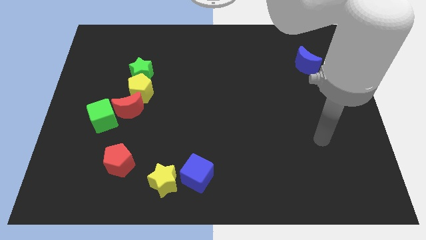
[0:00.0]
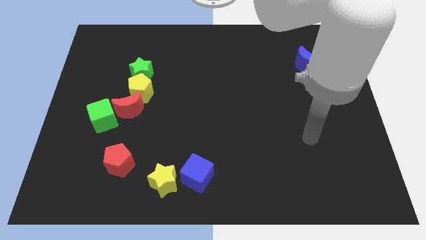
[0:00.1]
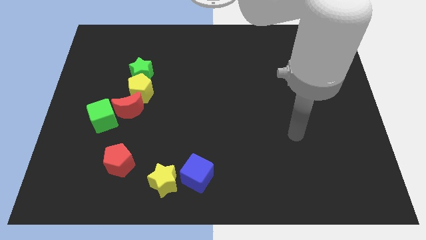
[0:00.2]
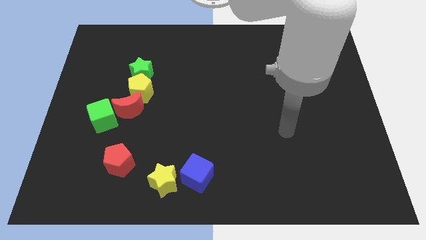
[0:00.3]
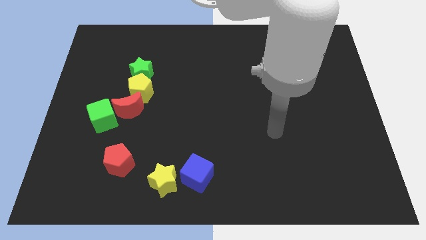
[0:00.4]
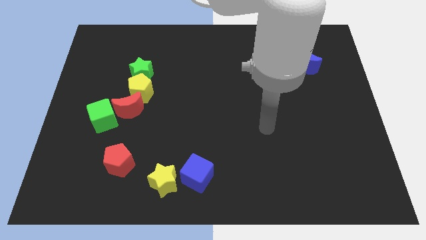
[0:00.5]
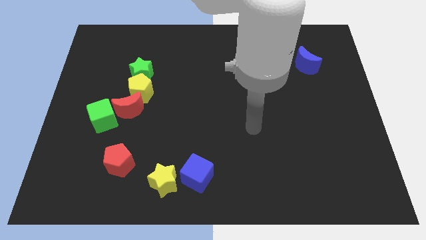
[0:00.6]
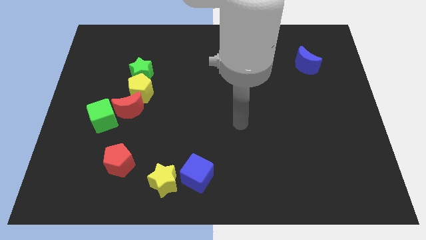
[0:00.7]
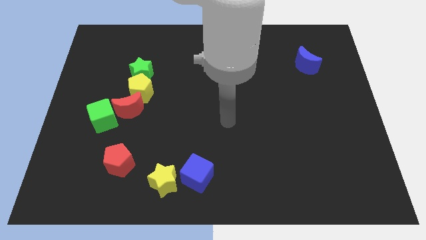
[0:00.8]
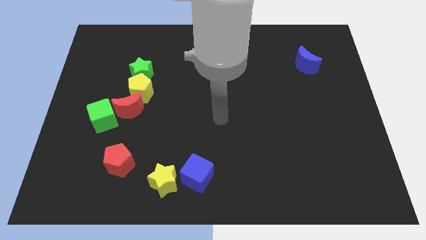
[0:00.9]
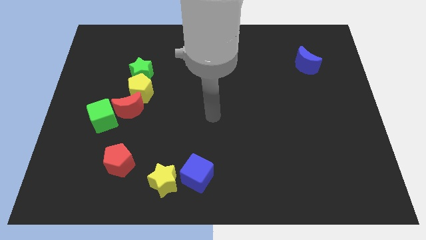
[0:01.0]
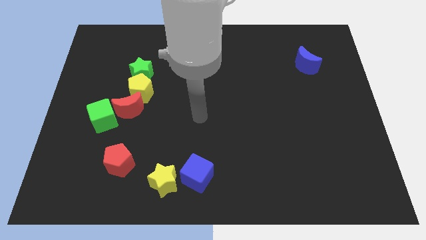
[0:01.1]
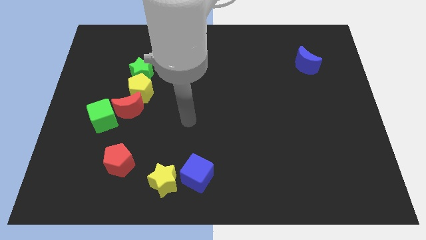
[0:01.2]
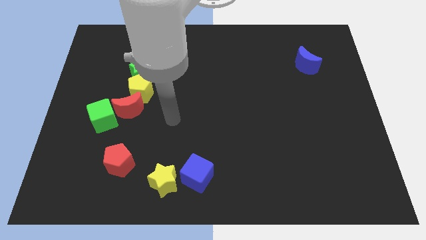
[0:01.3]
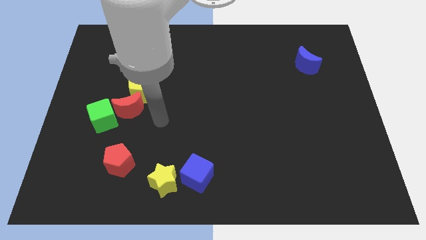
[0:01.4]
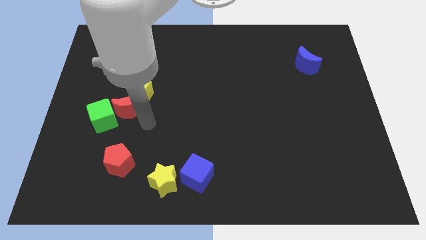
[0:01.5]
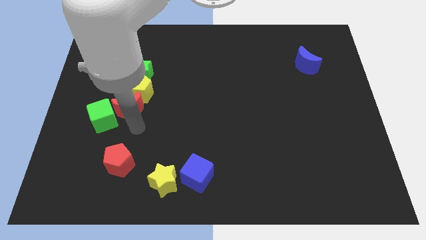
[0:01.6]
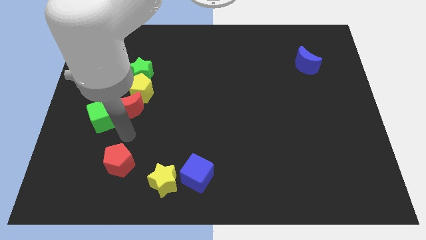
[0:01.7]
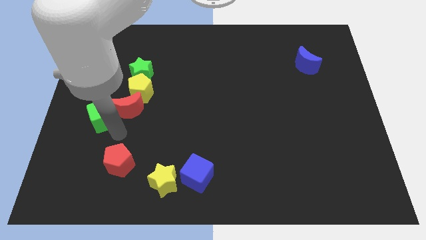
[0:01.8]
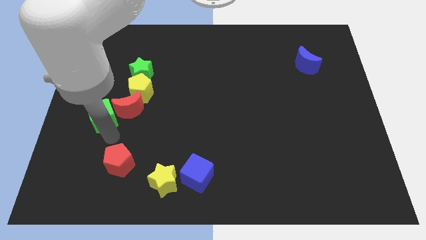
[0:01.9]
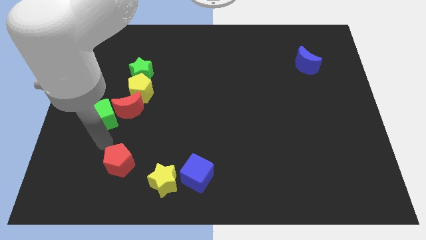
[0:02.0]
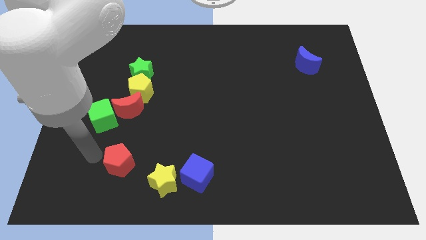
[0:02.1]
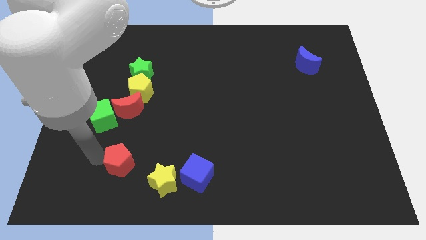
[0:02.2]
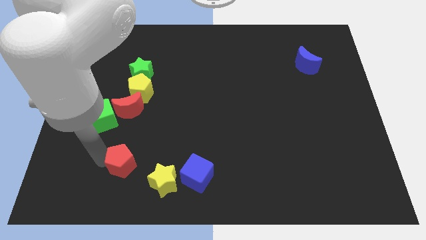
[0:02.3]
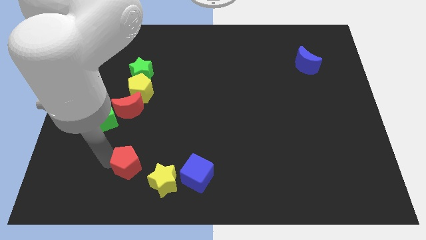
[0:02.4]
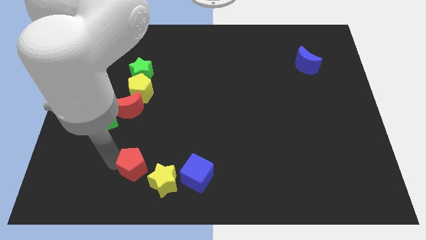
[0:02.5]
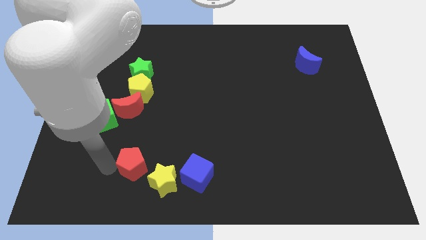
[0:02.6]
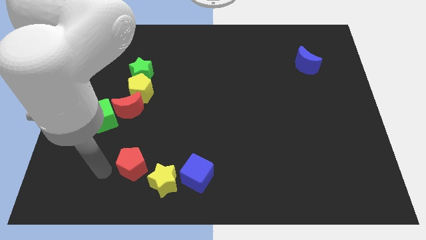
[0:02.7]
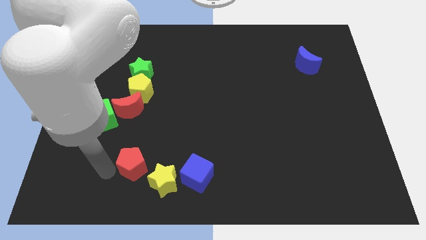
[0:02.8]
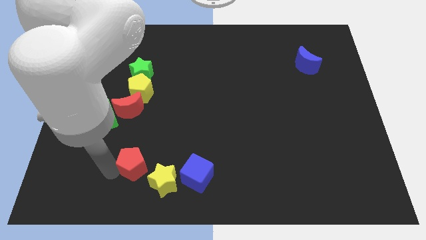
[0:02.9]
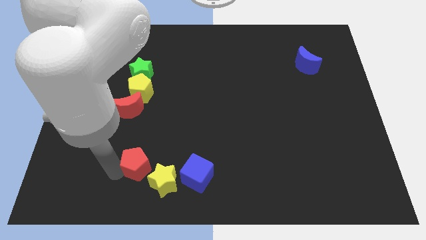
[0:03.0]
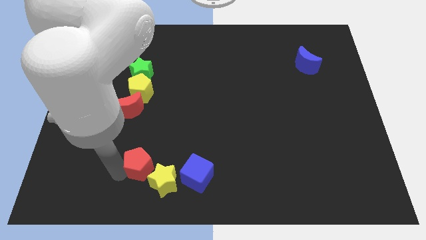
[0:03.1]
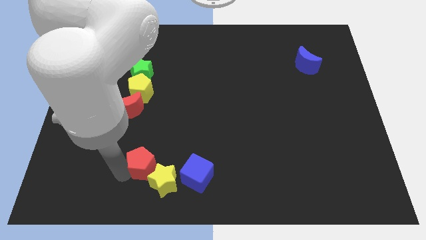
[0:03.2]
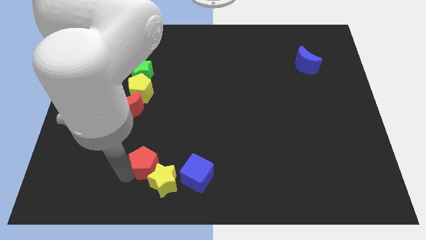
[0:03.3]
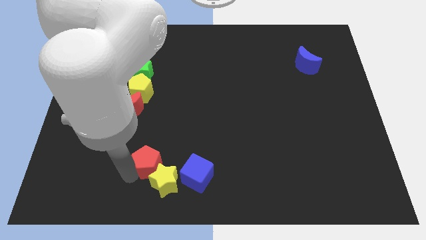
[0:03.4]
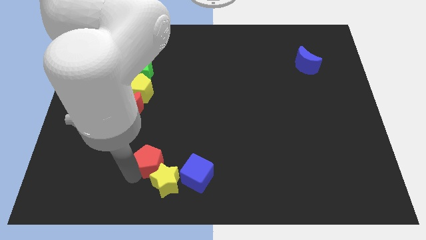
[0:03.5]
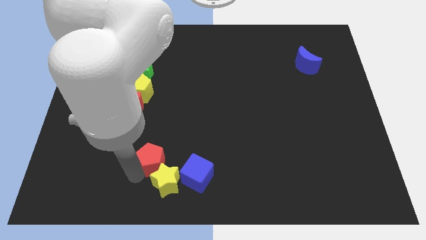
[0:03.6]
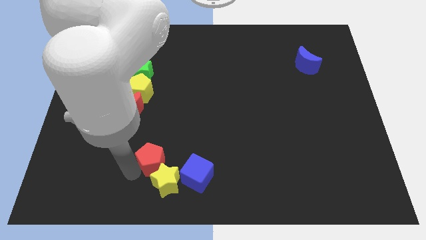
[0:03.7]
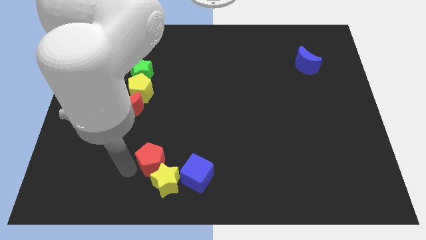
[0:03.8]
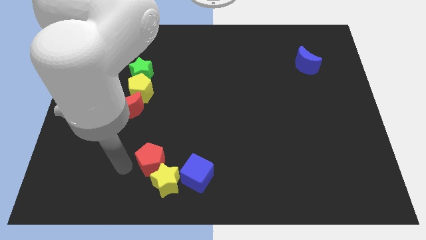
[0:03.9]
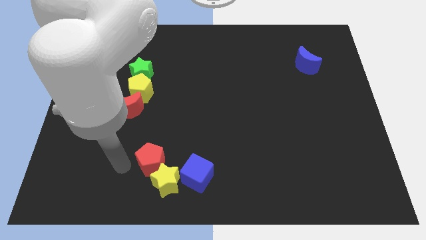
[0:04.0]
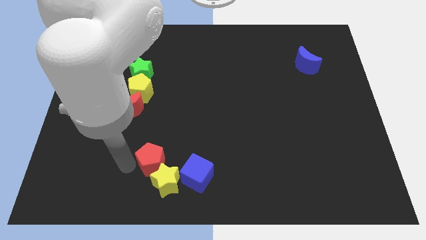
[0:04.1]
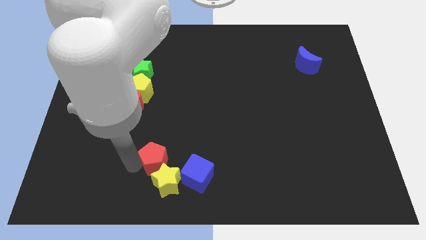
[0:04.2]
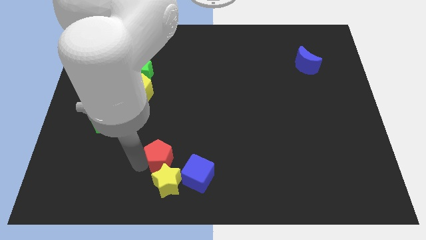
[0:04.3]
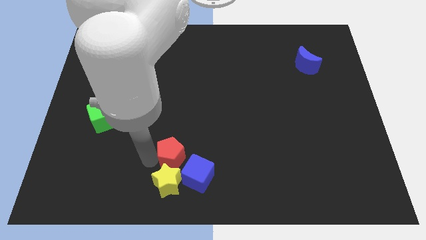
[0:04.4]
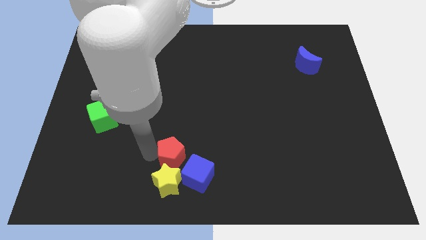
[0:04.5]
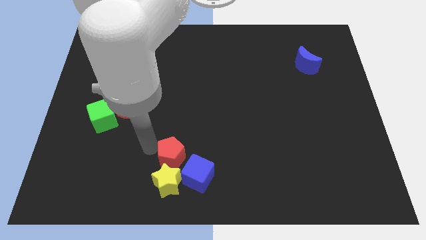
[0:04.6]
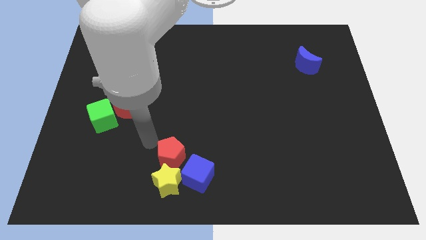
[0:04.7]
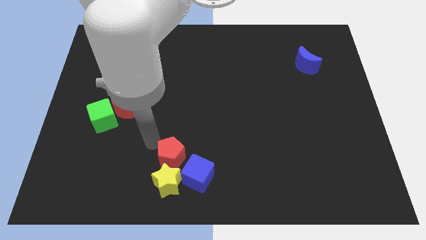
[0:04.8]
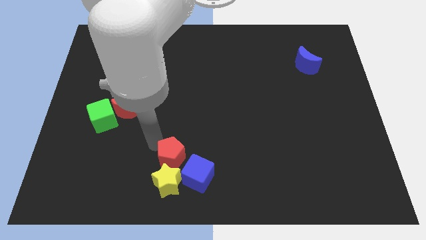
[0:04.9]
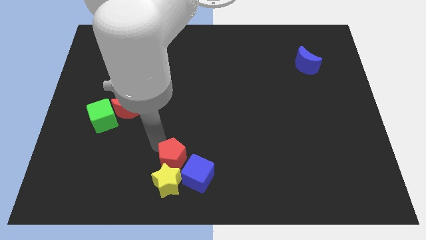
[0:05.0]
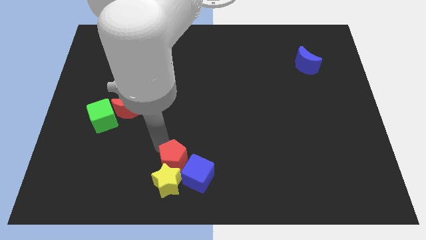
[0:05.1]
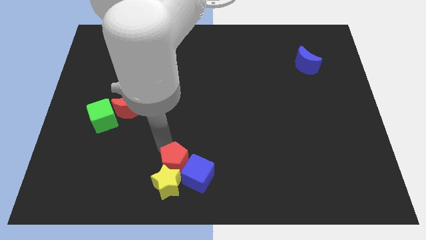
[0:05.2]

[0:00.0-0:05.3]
move the red pentagon next to the blue cube

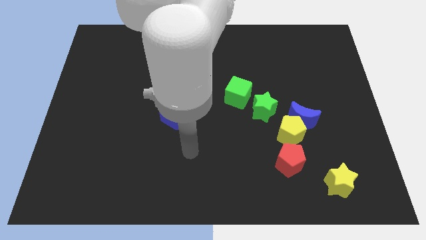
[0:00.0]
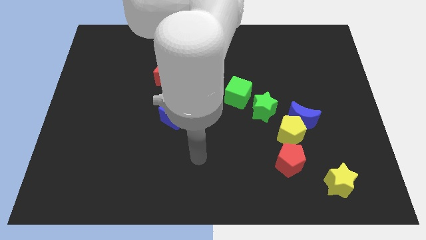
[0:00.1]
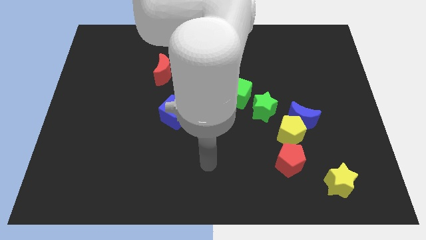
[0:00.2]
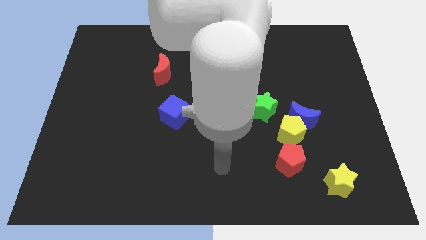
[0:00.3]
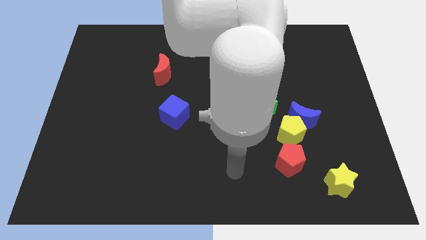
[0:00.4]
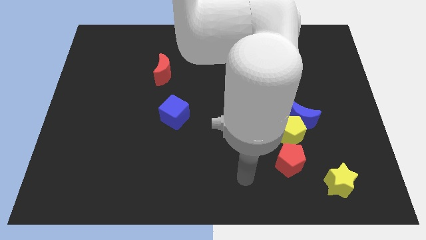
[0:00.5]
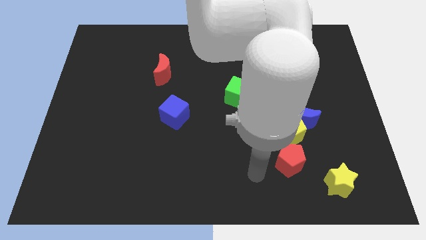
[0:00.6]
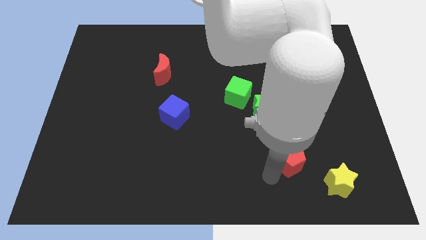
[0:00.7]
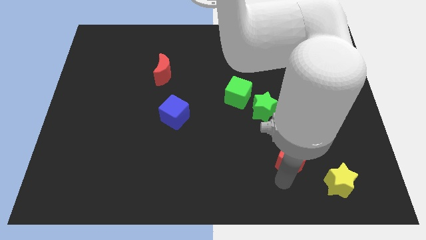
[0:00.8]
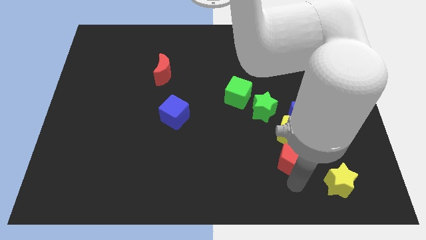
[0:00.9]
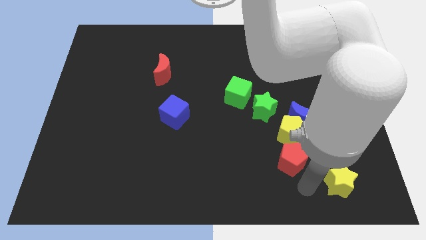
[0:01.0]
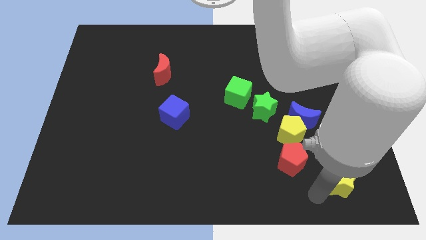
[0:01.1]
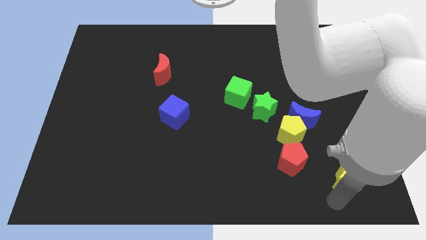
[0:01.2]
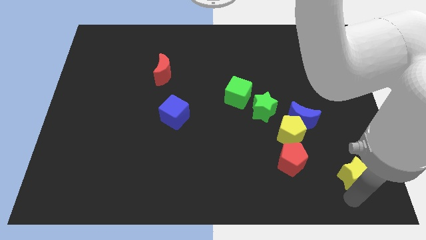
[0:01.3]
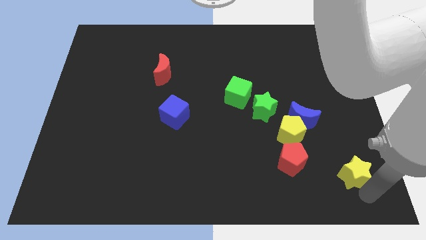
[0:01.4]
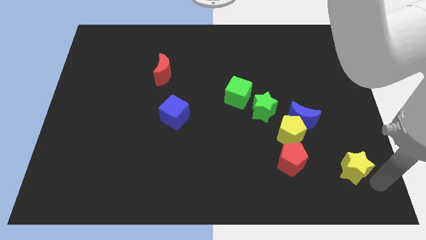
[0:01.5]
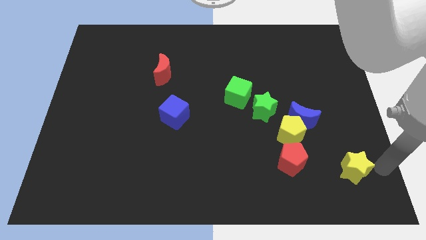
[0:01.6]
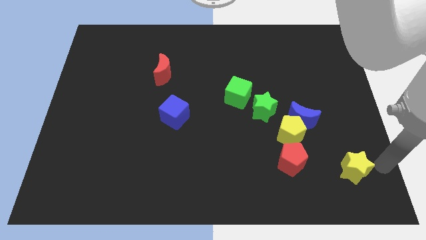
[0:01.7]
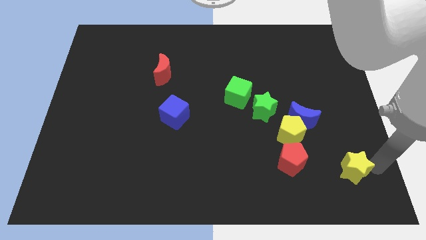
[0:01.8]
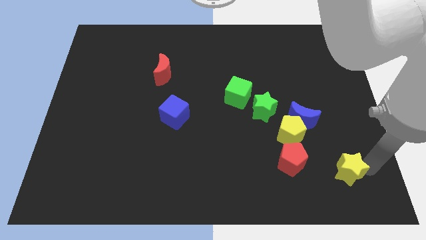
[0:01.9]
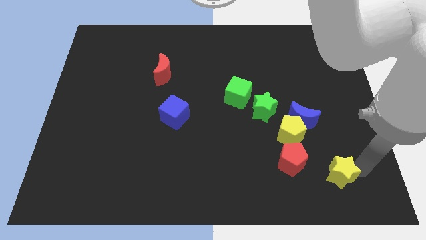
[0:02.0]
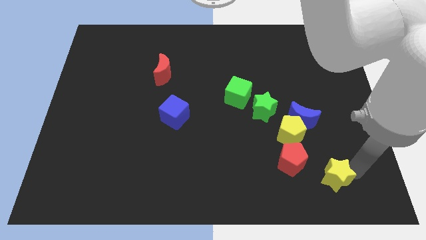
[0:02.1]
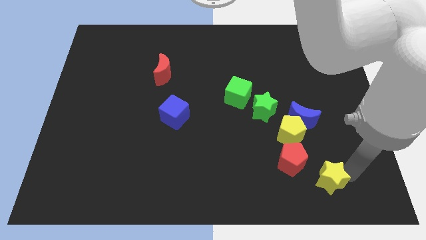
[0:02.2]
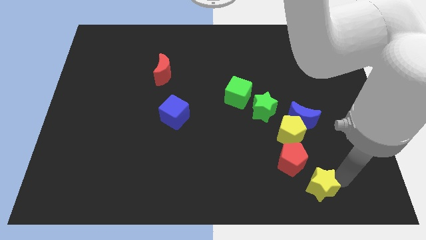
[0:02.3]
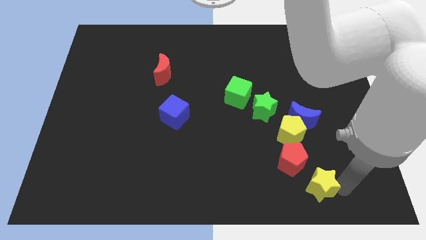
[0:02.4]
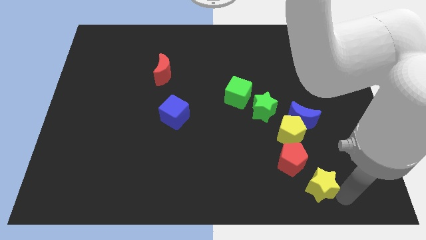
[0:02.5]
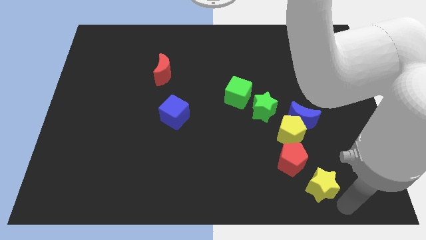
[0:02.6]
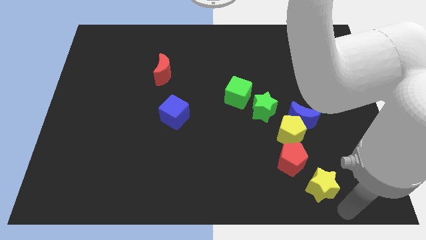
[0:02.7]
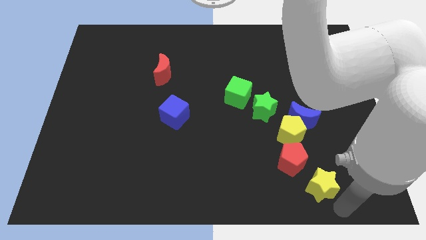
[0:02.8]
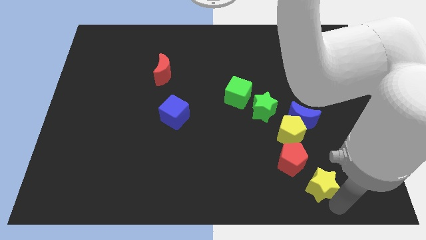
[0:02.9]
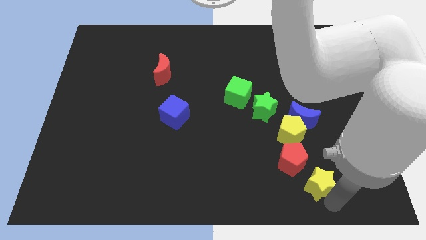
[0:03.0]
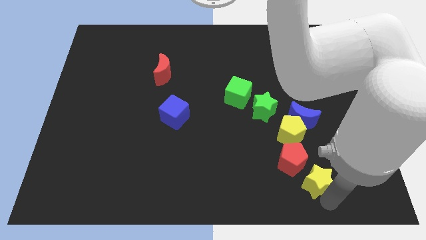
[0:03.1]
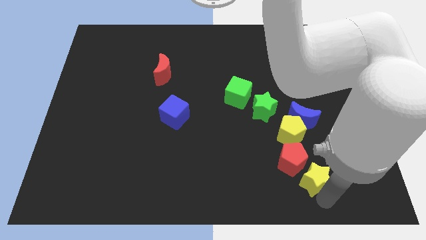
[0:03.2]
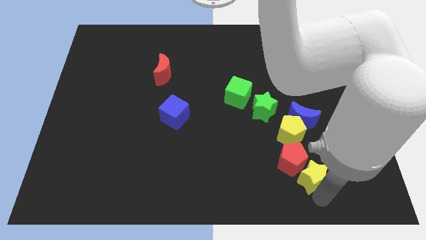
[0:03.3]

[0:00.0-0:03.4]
slide the yellow star towards the red pentagon
